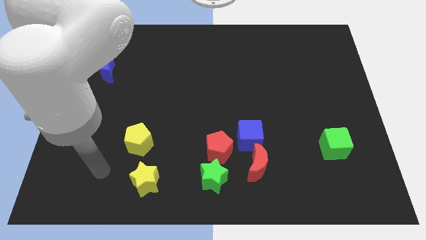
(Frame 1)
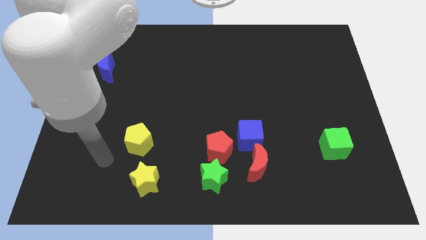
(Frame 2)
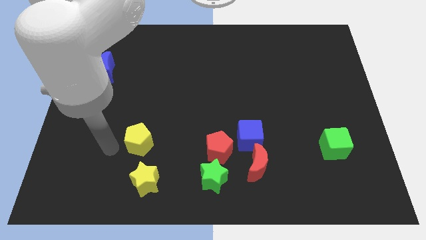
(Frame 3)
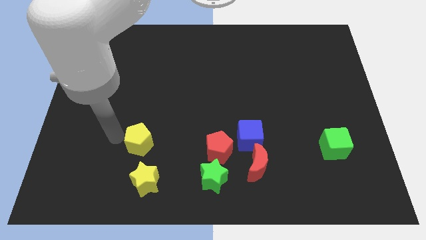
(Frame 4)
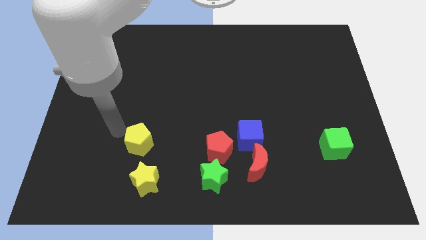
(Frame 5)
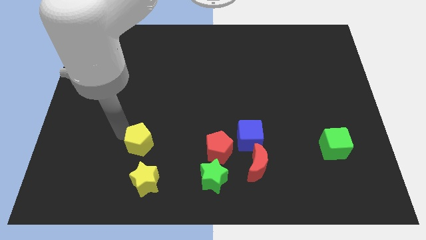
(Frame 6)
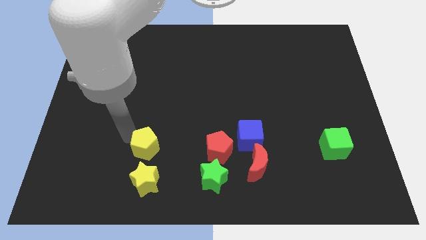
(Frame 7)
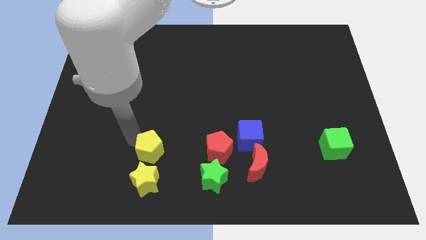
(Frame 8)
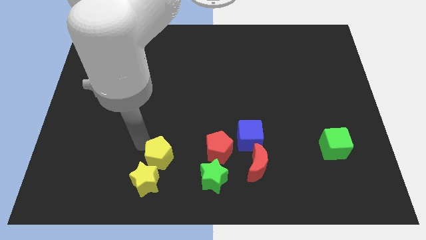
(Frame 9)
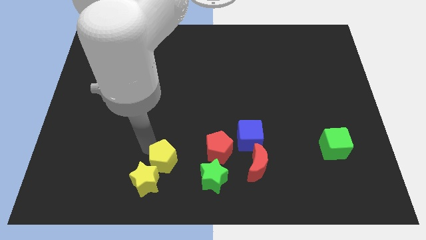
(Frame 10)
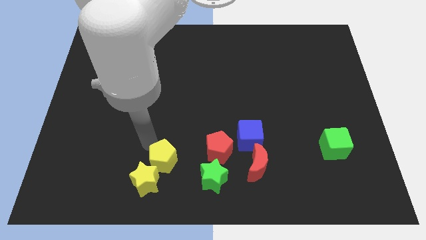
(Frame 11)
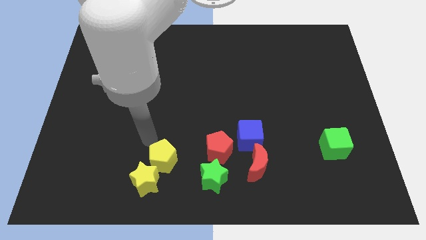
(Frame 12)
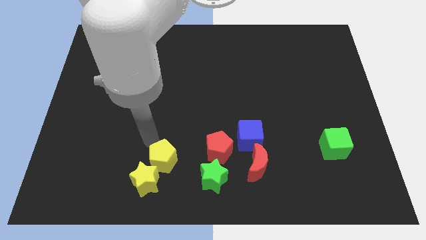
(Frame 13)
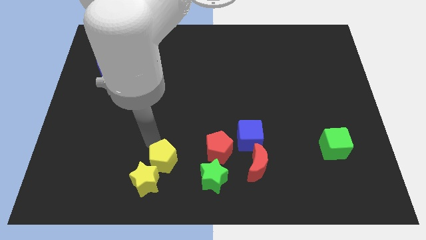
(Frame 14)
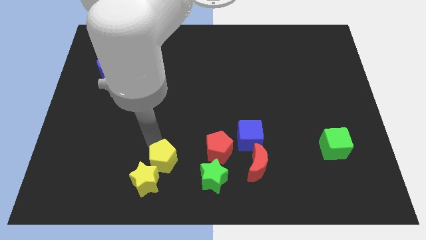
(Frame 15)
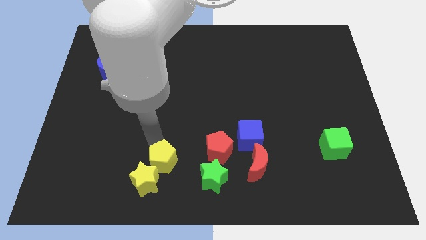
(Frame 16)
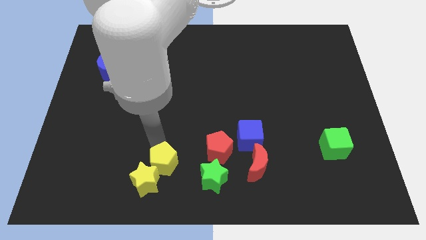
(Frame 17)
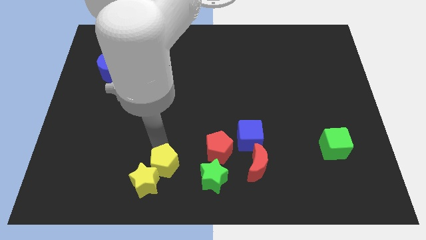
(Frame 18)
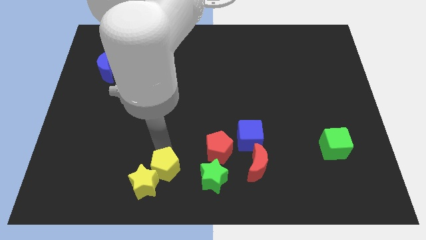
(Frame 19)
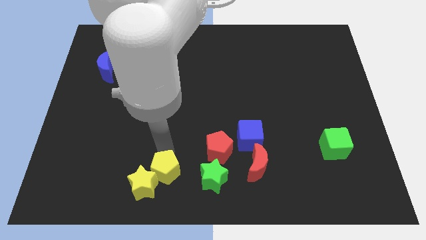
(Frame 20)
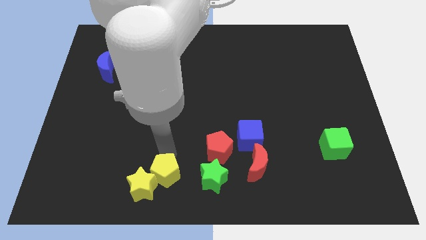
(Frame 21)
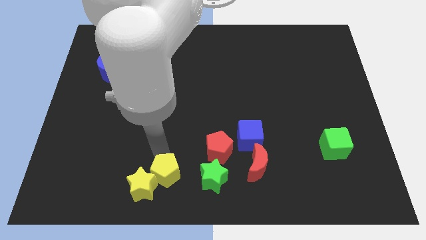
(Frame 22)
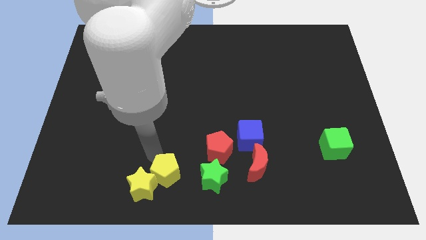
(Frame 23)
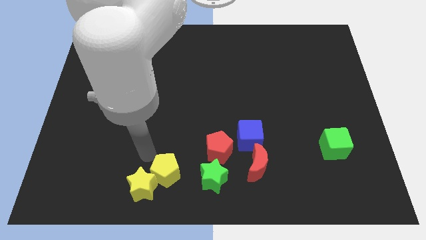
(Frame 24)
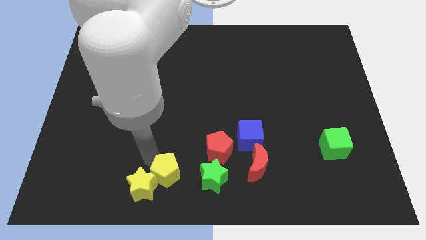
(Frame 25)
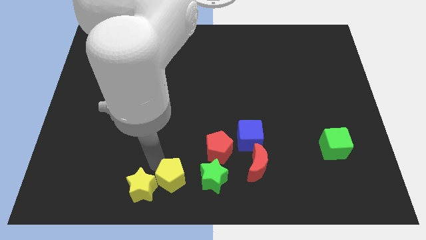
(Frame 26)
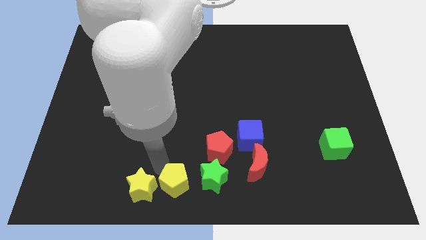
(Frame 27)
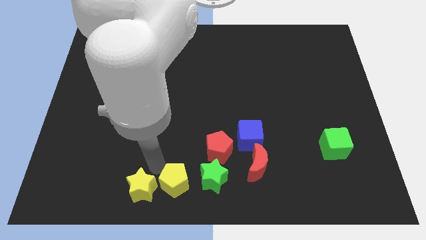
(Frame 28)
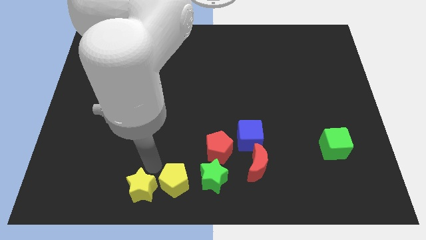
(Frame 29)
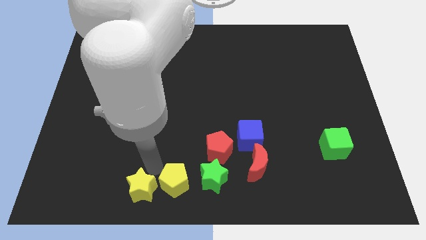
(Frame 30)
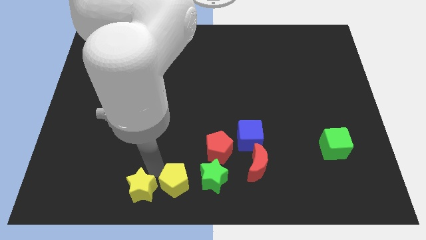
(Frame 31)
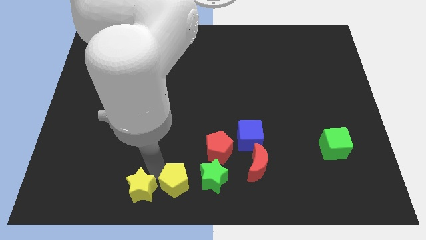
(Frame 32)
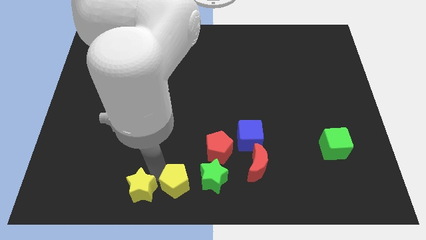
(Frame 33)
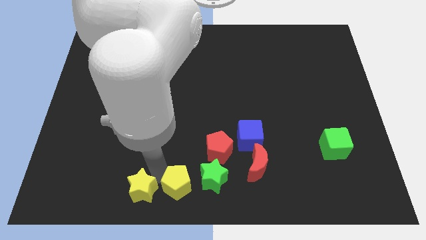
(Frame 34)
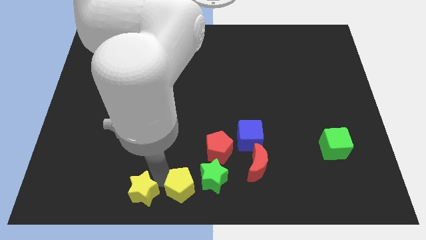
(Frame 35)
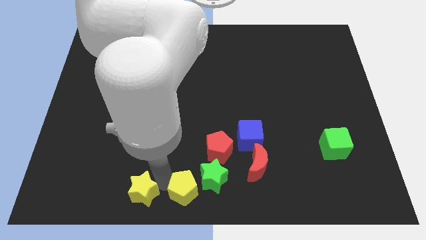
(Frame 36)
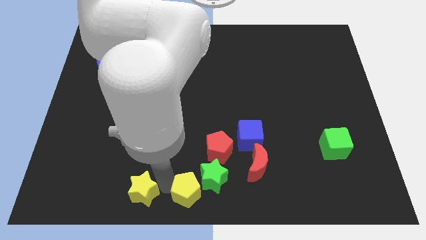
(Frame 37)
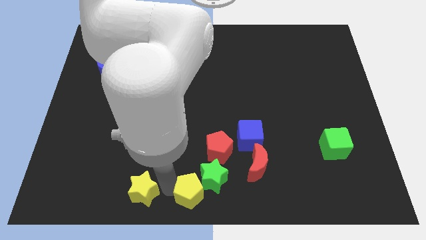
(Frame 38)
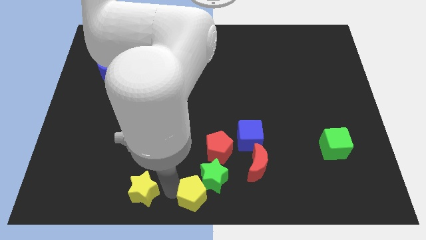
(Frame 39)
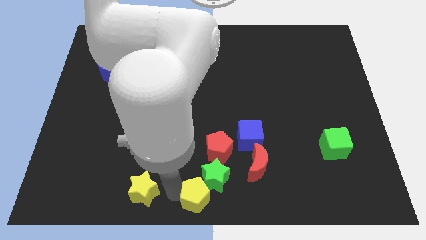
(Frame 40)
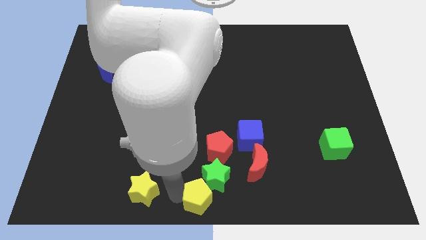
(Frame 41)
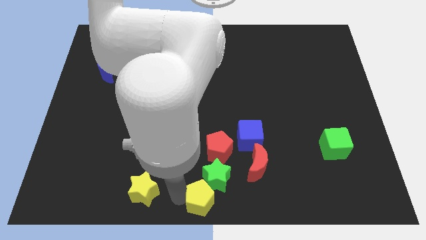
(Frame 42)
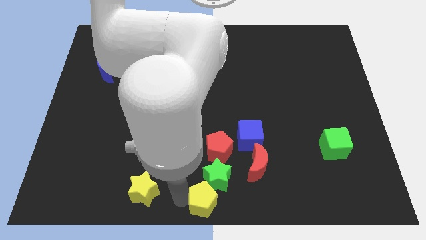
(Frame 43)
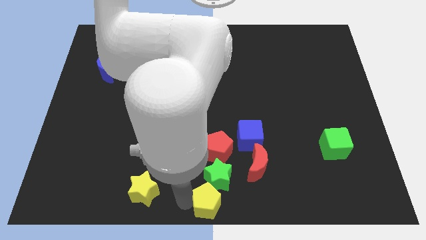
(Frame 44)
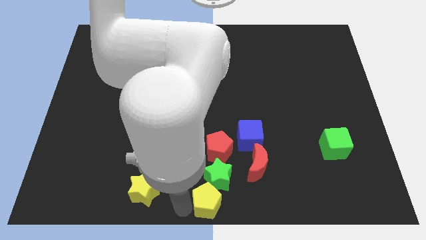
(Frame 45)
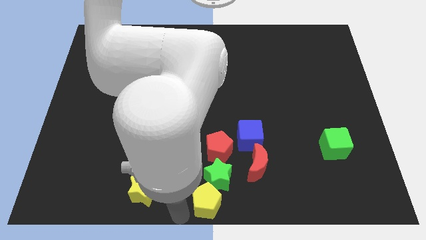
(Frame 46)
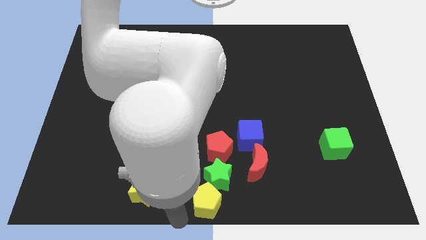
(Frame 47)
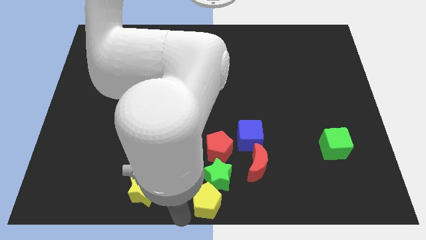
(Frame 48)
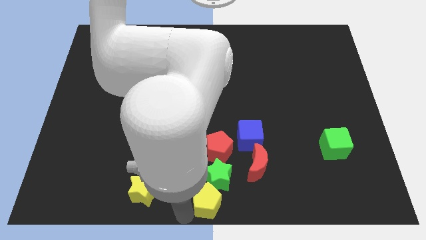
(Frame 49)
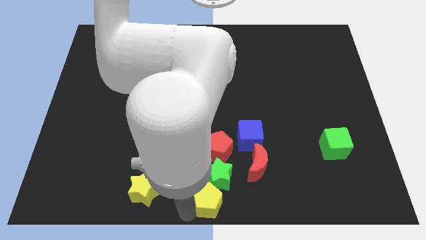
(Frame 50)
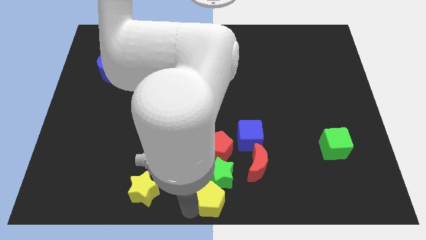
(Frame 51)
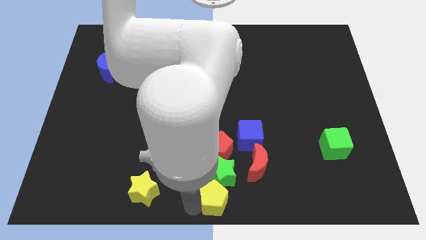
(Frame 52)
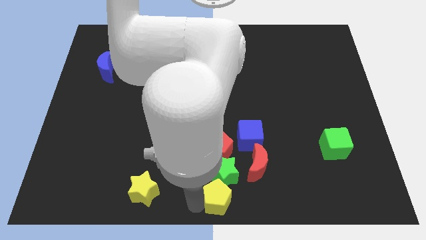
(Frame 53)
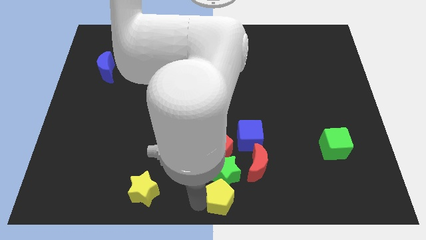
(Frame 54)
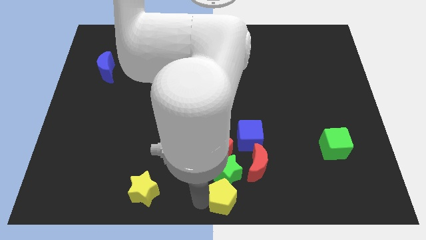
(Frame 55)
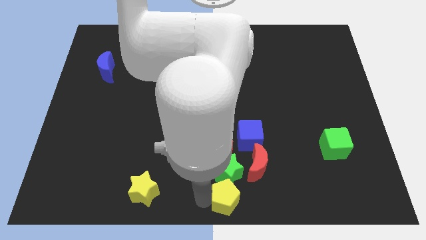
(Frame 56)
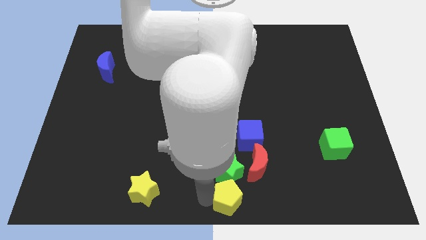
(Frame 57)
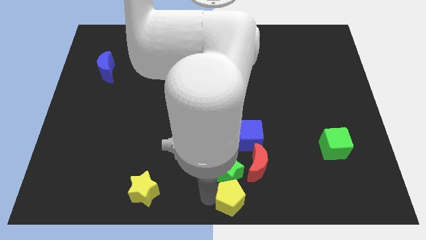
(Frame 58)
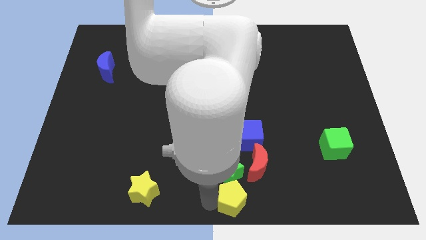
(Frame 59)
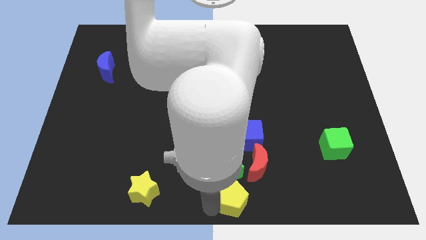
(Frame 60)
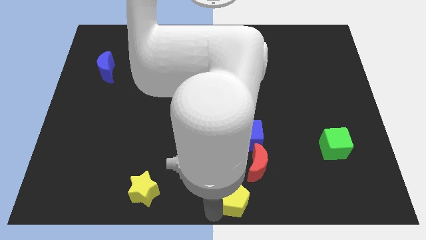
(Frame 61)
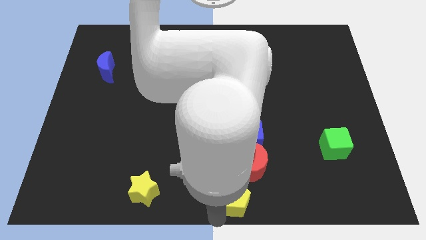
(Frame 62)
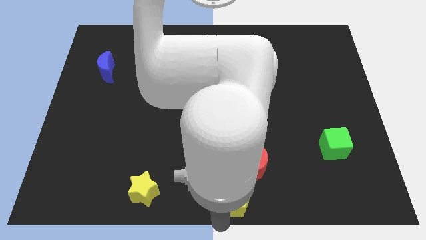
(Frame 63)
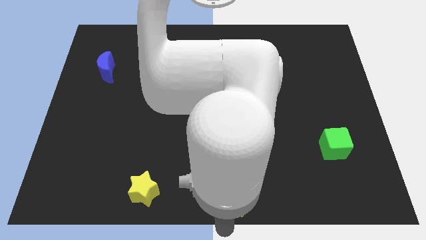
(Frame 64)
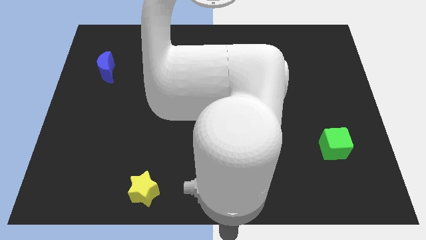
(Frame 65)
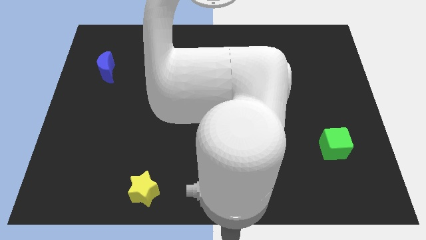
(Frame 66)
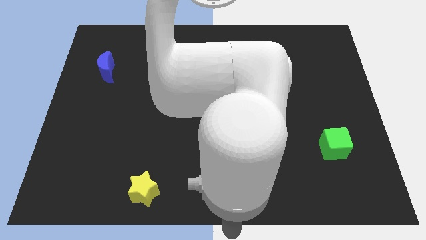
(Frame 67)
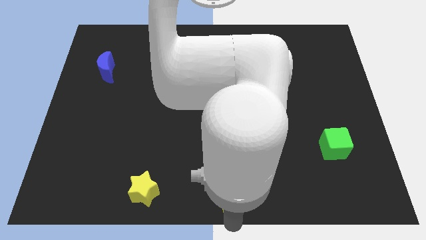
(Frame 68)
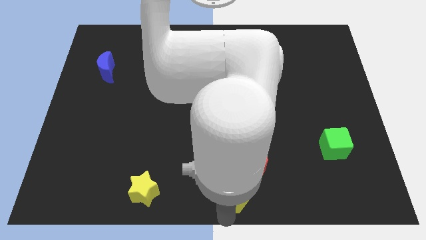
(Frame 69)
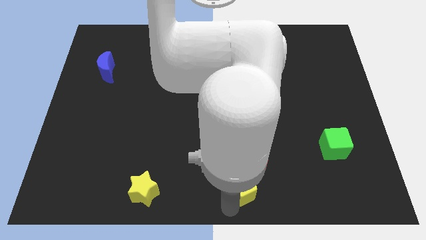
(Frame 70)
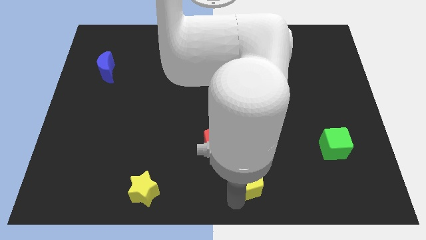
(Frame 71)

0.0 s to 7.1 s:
push the yellow pentagon to the red moon
